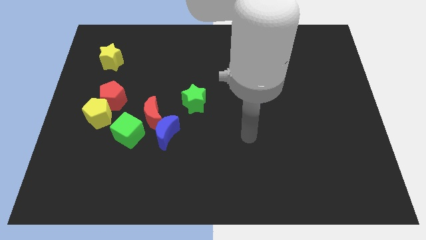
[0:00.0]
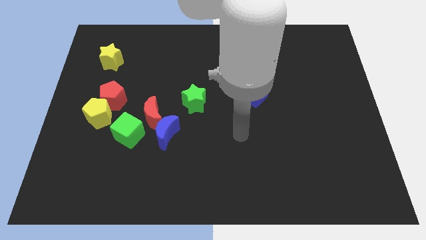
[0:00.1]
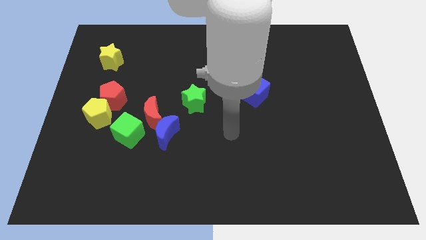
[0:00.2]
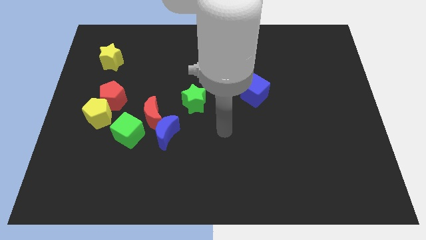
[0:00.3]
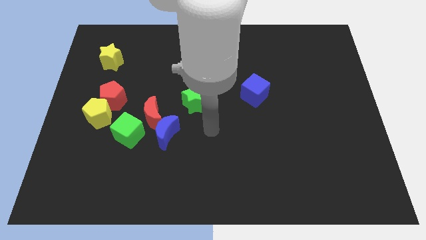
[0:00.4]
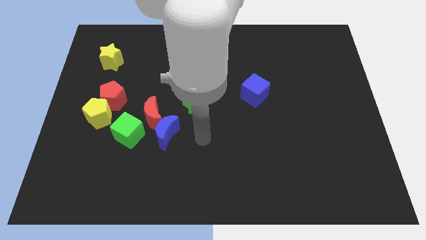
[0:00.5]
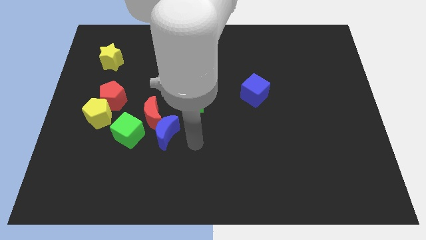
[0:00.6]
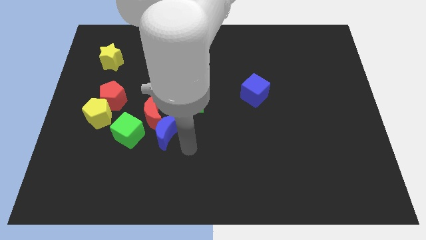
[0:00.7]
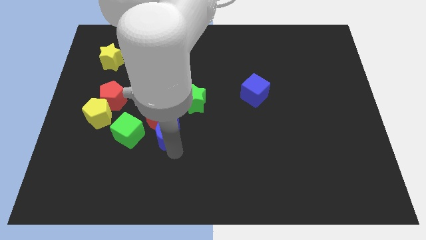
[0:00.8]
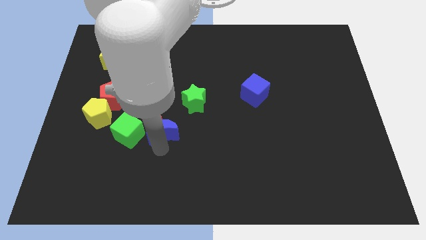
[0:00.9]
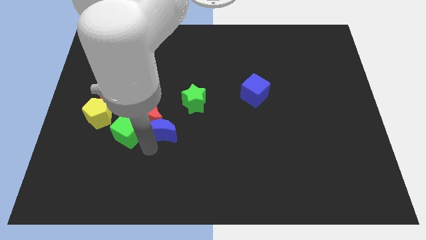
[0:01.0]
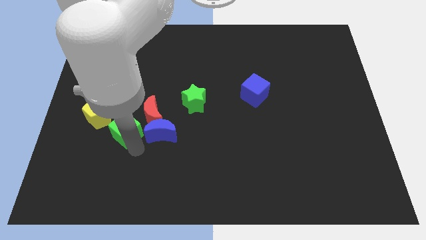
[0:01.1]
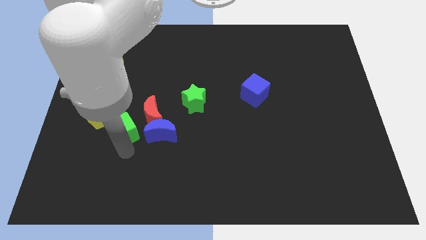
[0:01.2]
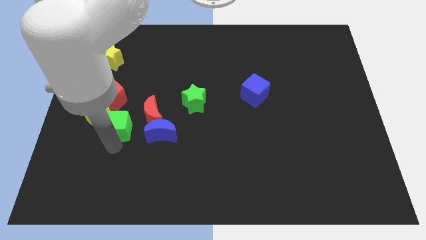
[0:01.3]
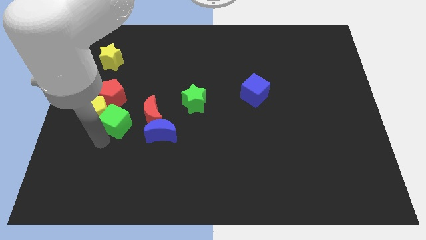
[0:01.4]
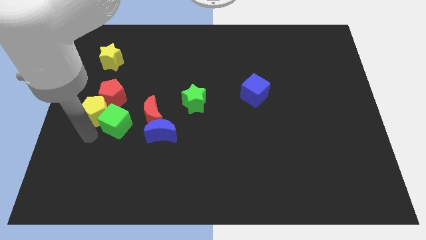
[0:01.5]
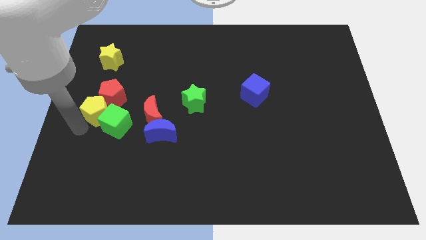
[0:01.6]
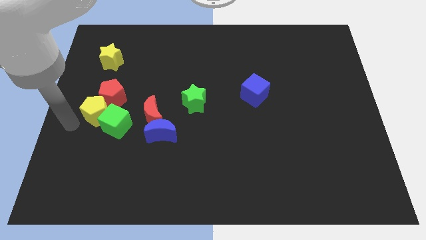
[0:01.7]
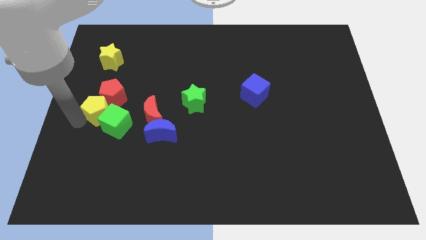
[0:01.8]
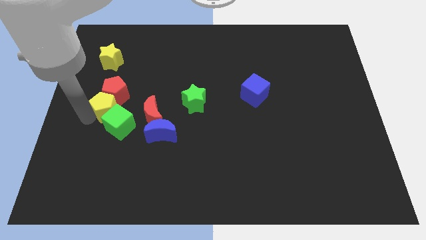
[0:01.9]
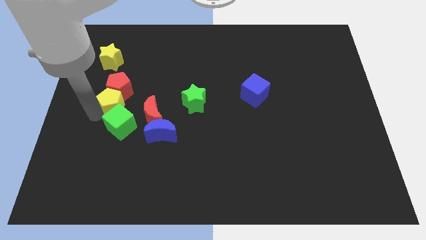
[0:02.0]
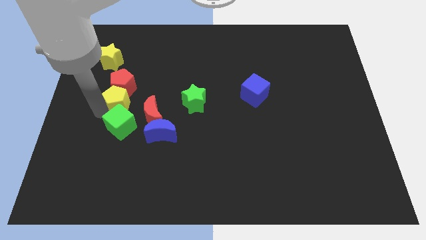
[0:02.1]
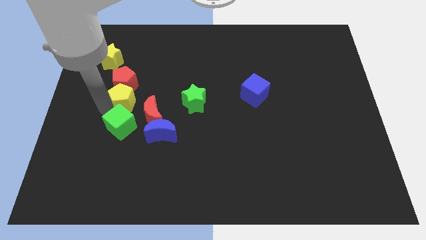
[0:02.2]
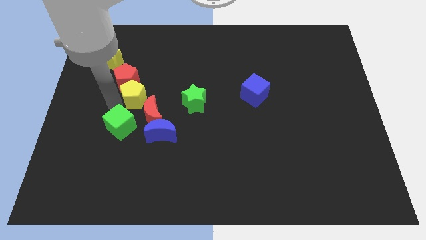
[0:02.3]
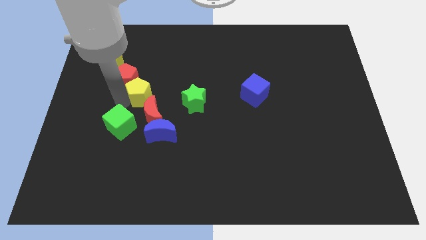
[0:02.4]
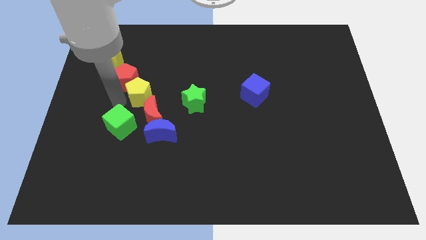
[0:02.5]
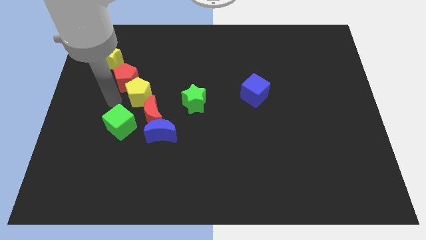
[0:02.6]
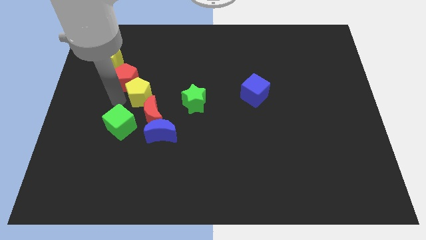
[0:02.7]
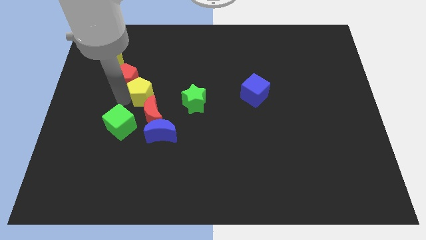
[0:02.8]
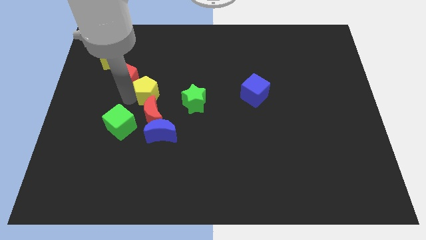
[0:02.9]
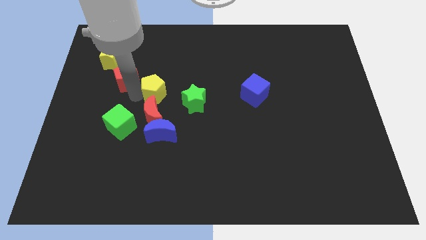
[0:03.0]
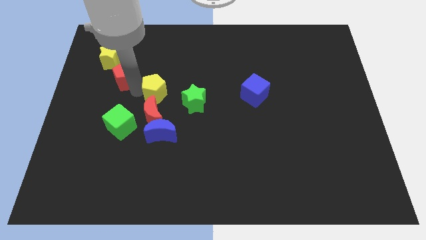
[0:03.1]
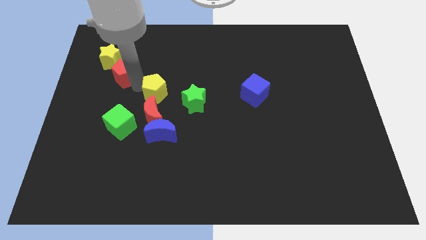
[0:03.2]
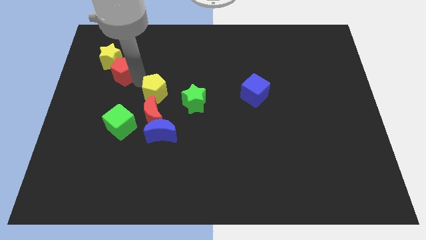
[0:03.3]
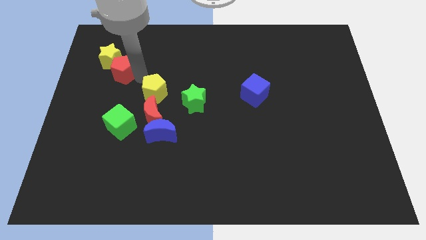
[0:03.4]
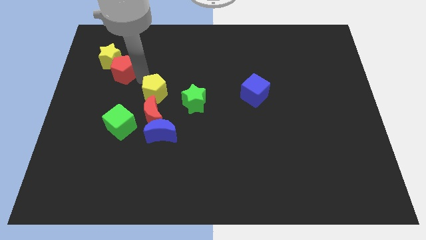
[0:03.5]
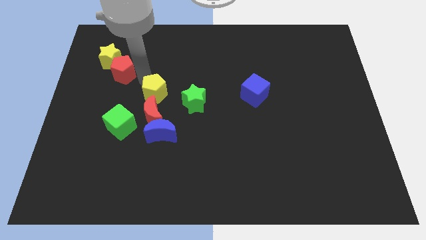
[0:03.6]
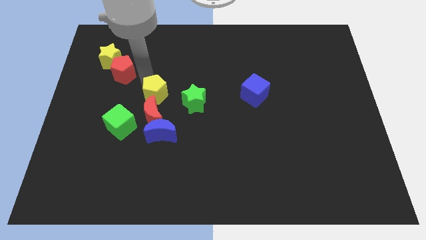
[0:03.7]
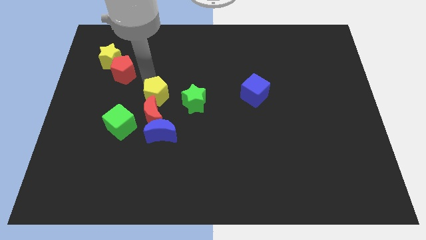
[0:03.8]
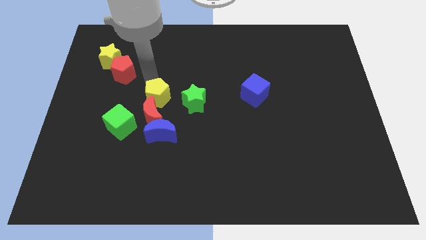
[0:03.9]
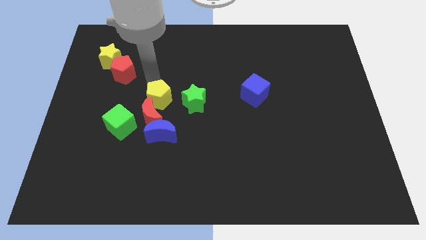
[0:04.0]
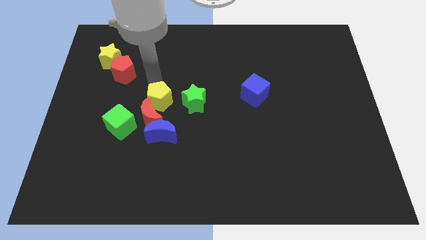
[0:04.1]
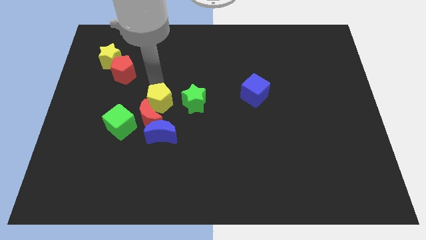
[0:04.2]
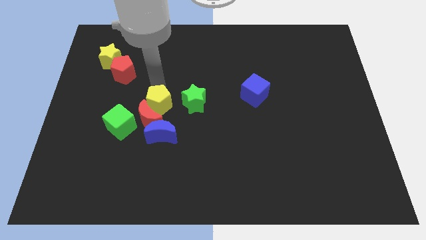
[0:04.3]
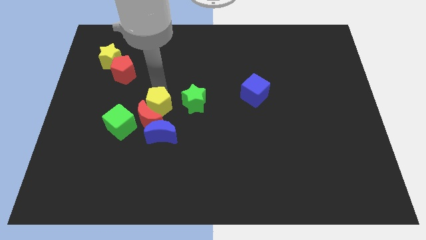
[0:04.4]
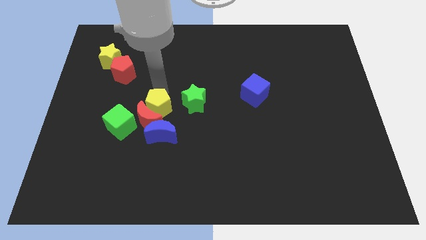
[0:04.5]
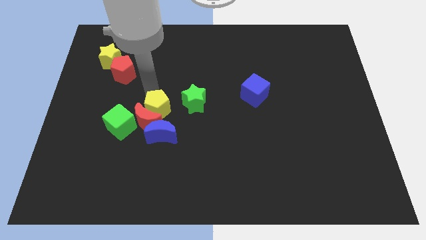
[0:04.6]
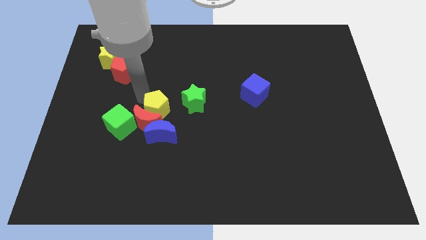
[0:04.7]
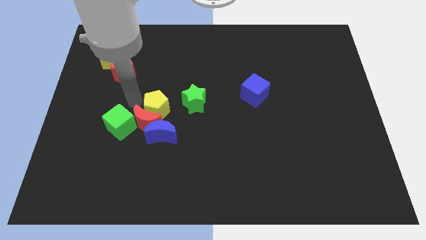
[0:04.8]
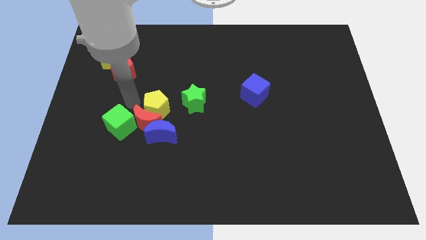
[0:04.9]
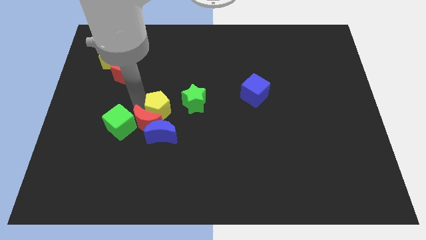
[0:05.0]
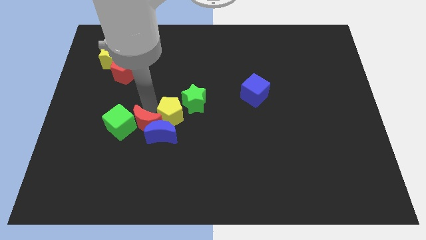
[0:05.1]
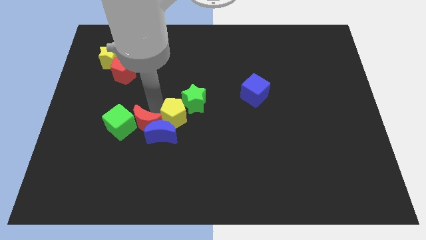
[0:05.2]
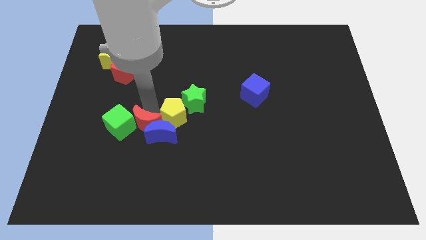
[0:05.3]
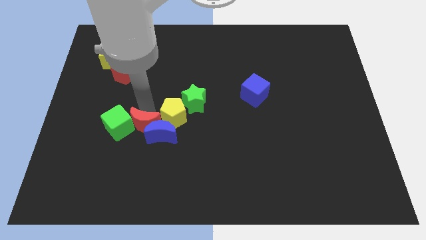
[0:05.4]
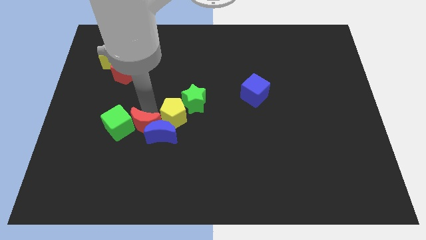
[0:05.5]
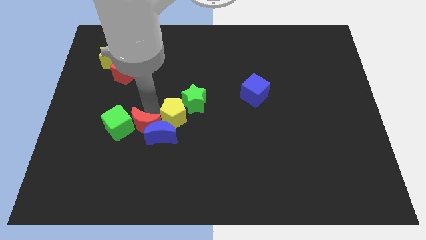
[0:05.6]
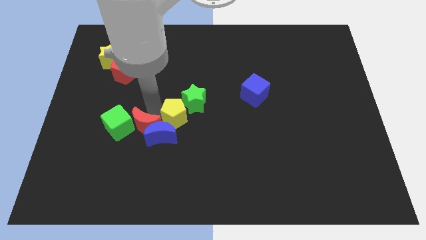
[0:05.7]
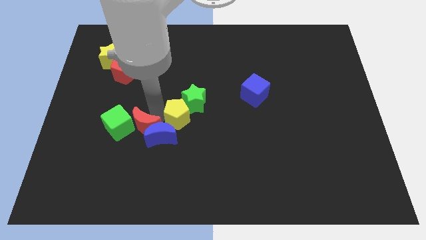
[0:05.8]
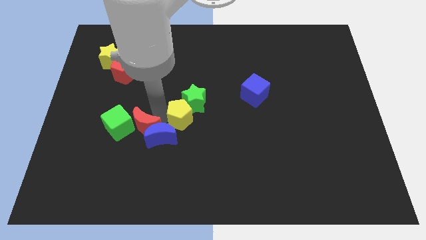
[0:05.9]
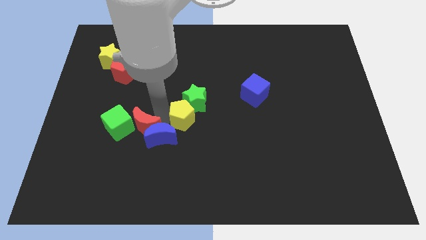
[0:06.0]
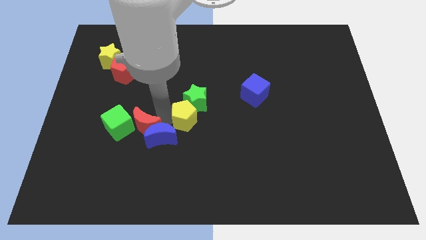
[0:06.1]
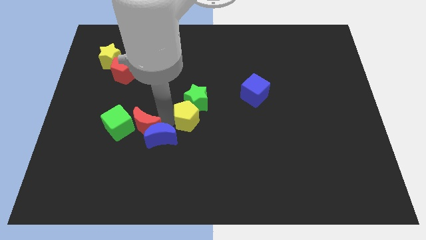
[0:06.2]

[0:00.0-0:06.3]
slide the yellow pentagon right

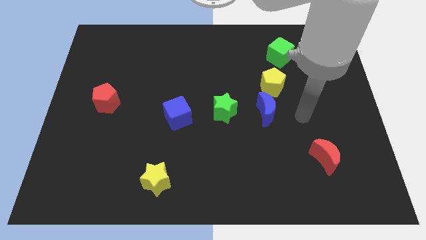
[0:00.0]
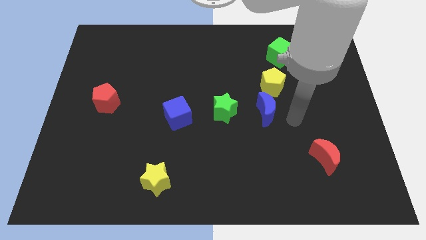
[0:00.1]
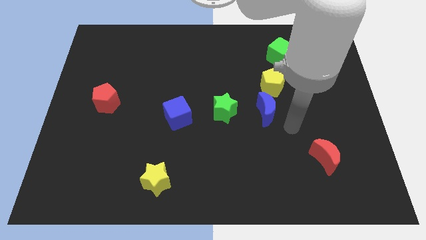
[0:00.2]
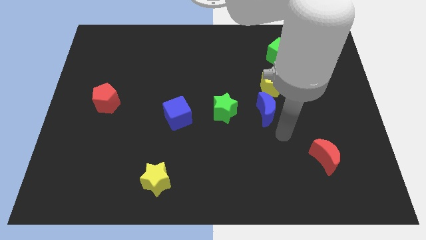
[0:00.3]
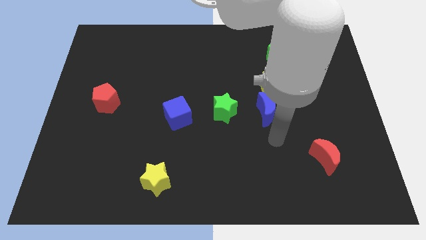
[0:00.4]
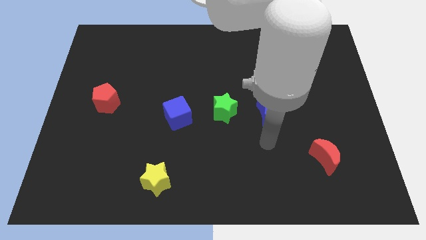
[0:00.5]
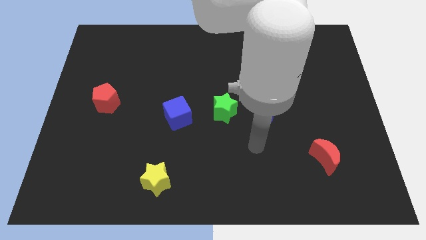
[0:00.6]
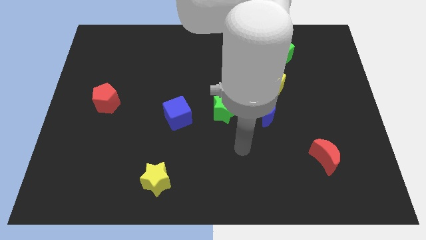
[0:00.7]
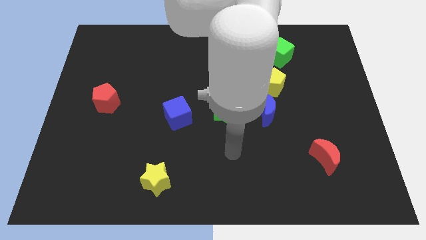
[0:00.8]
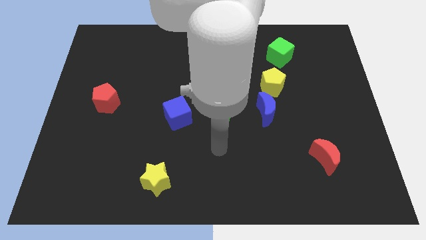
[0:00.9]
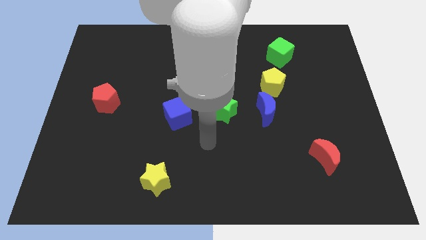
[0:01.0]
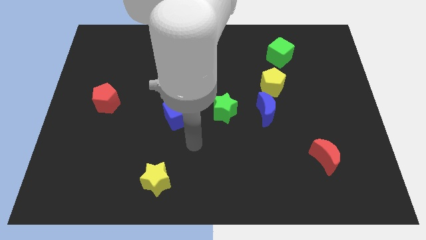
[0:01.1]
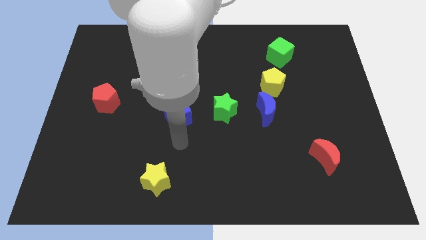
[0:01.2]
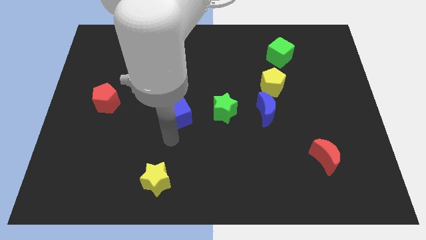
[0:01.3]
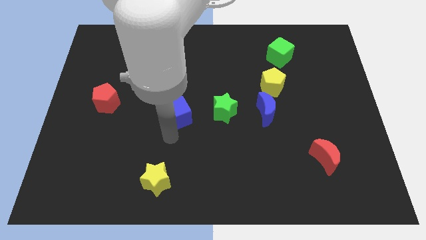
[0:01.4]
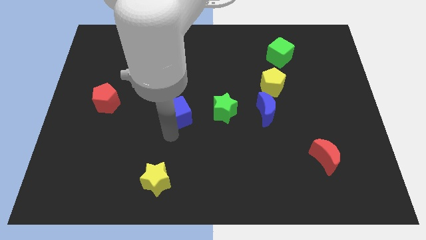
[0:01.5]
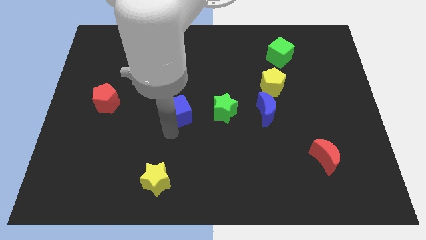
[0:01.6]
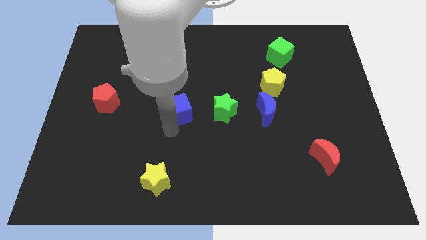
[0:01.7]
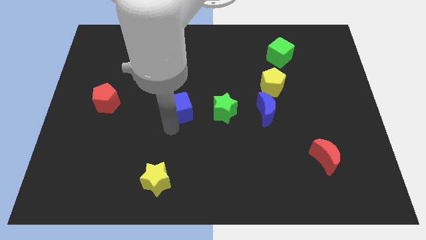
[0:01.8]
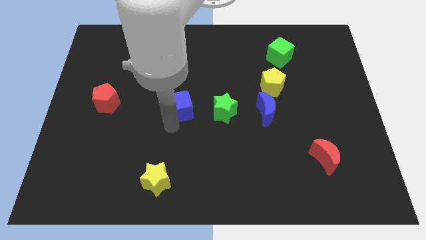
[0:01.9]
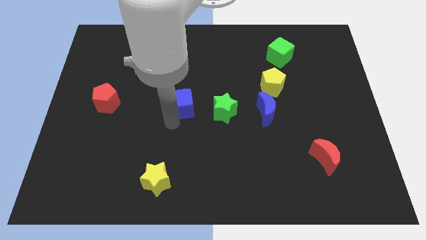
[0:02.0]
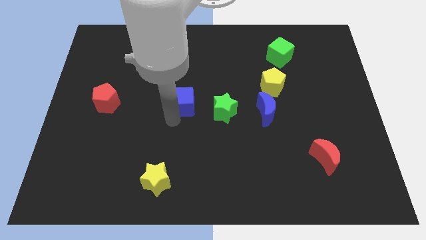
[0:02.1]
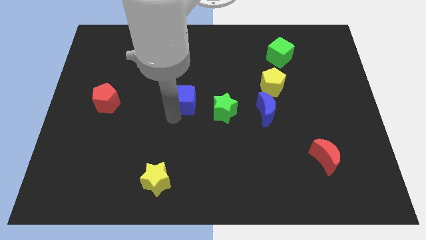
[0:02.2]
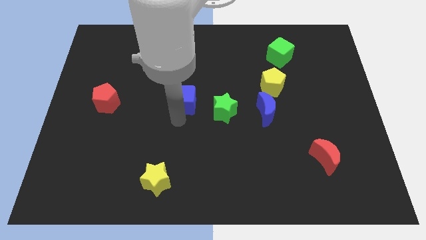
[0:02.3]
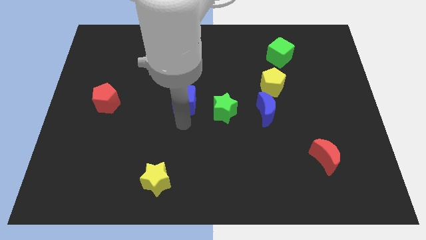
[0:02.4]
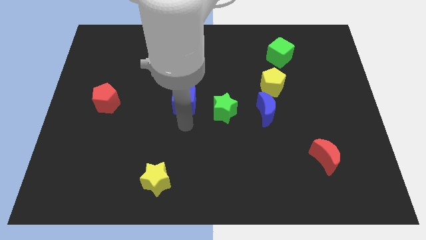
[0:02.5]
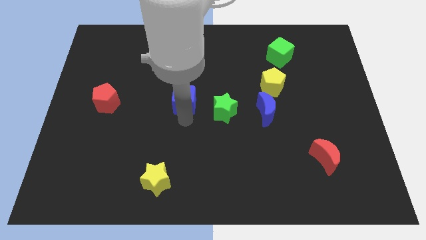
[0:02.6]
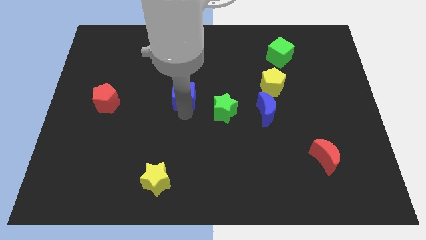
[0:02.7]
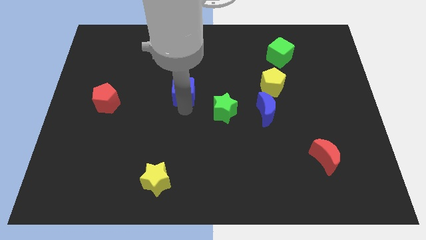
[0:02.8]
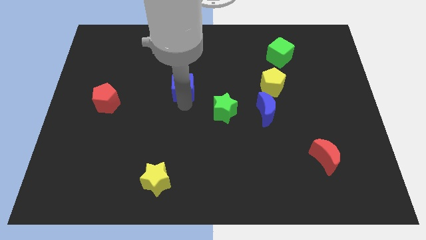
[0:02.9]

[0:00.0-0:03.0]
slightly push the blue cube upwards
